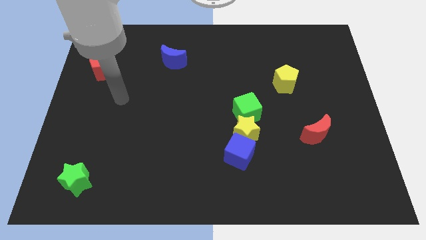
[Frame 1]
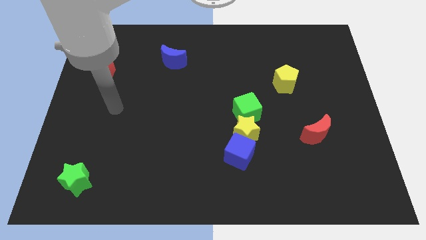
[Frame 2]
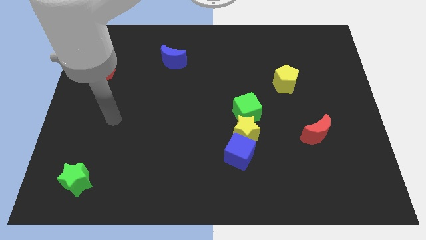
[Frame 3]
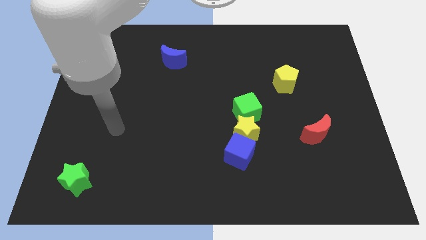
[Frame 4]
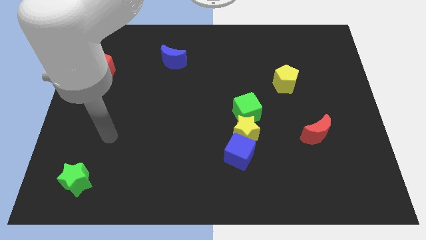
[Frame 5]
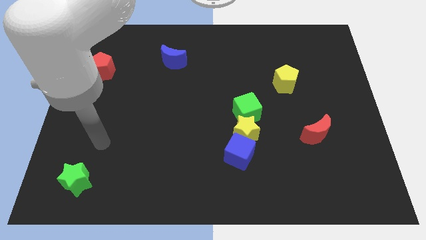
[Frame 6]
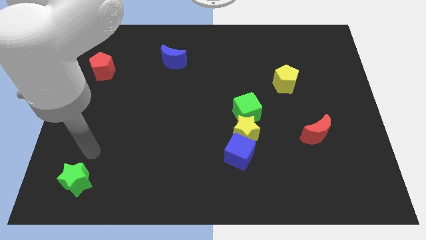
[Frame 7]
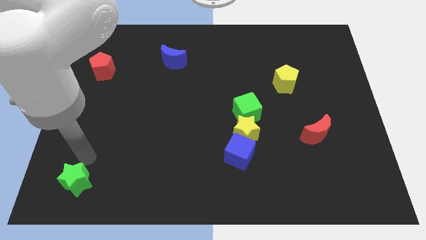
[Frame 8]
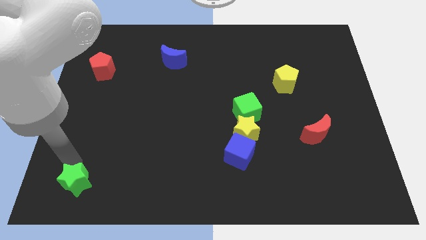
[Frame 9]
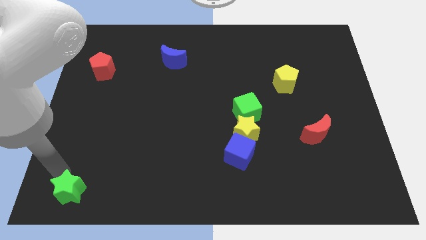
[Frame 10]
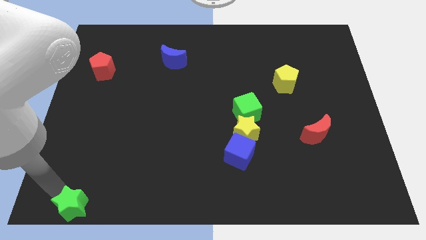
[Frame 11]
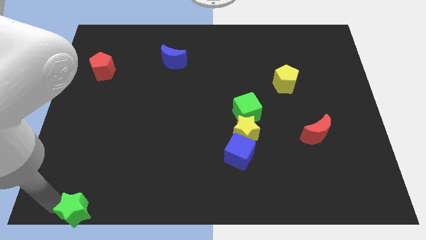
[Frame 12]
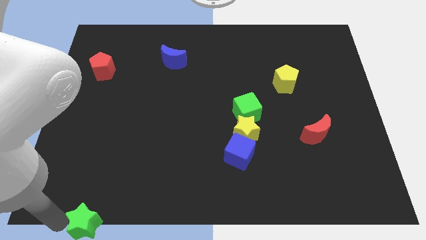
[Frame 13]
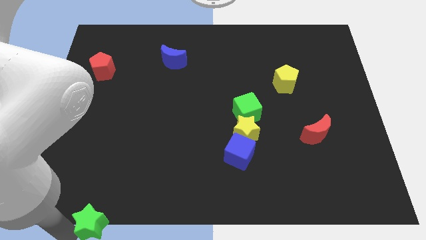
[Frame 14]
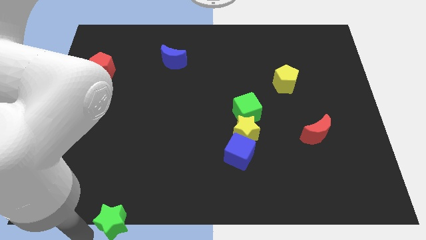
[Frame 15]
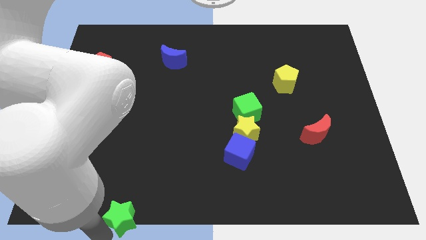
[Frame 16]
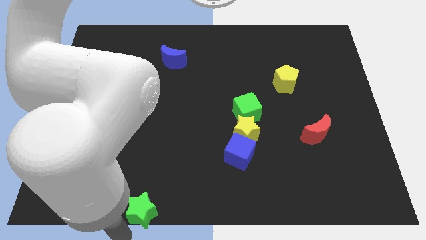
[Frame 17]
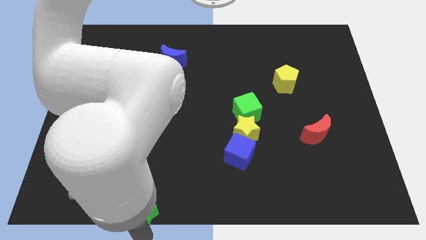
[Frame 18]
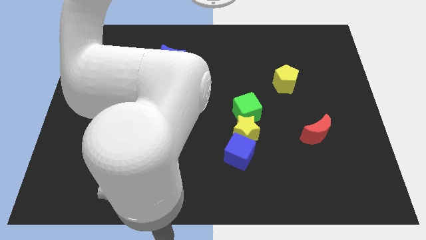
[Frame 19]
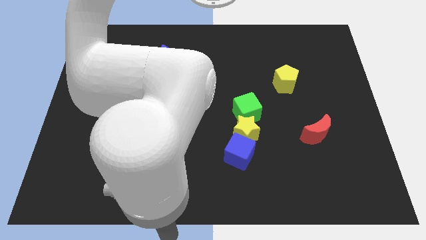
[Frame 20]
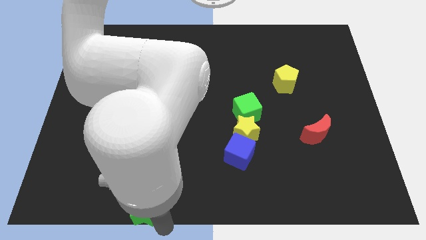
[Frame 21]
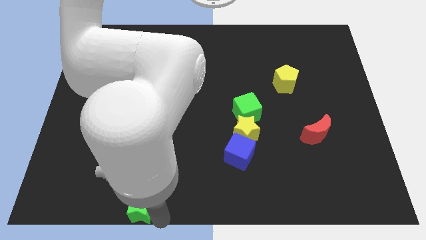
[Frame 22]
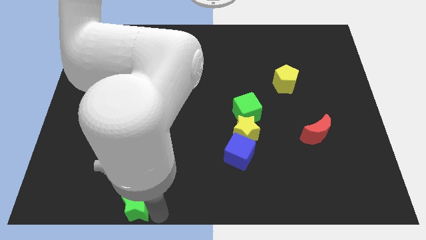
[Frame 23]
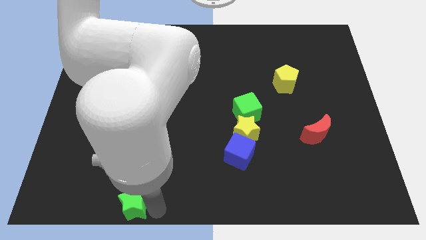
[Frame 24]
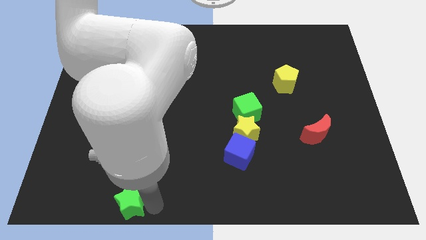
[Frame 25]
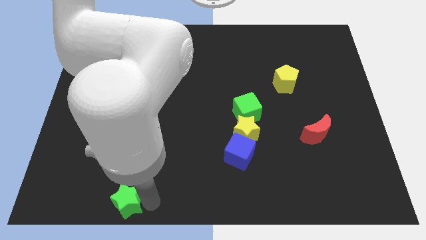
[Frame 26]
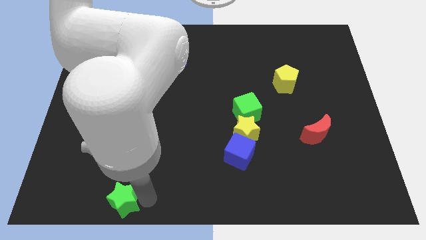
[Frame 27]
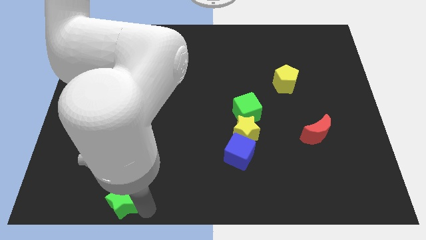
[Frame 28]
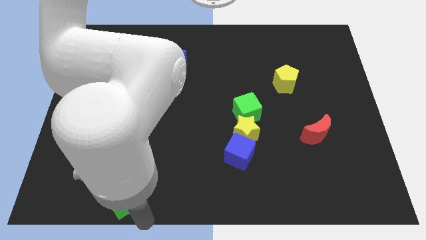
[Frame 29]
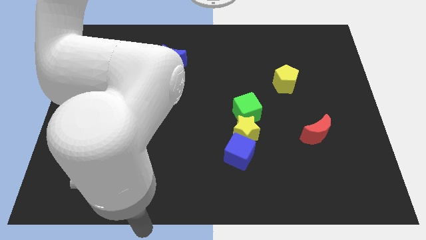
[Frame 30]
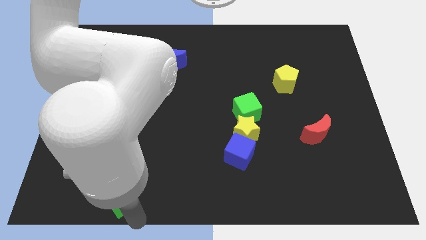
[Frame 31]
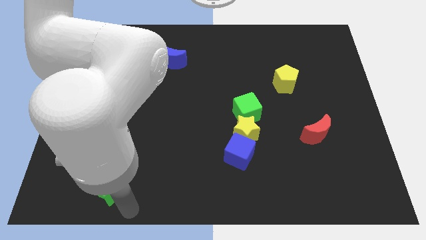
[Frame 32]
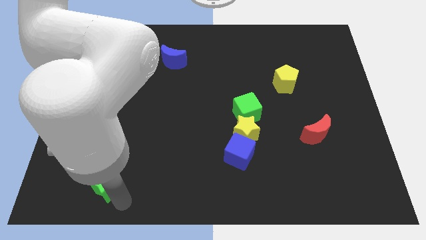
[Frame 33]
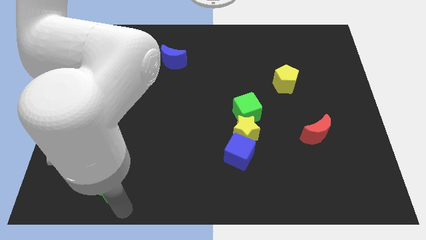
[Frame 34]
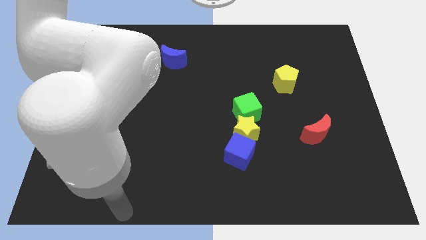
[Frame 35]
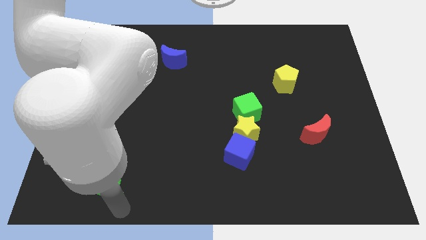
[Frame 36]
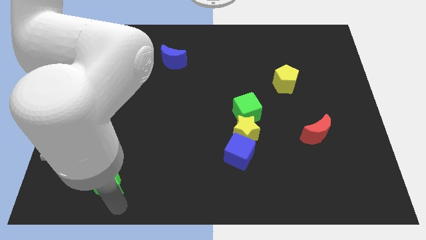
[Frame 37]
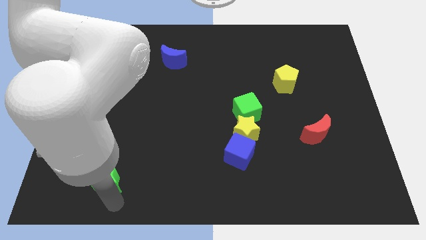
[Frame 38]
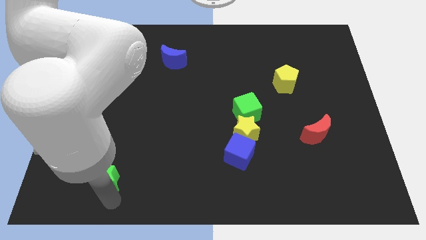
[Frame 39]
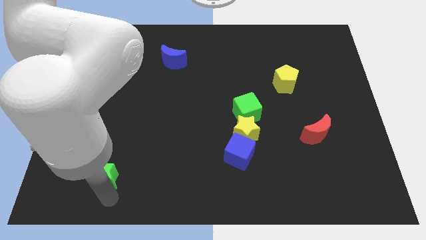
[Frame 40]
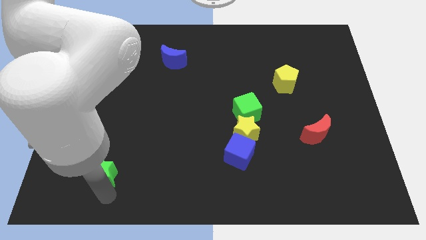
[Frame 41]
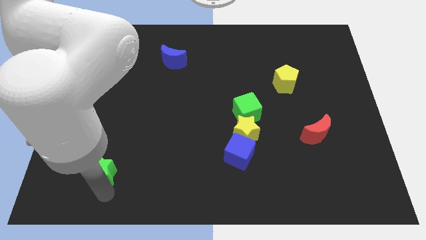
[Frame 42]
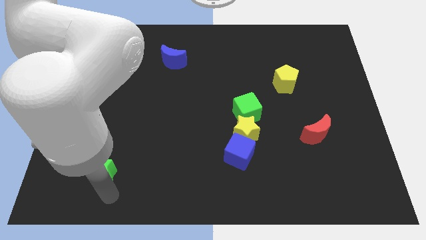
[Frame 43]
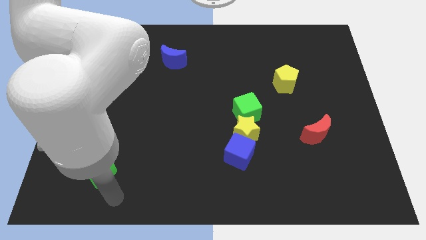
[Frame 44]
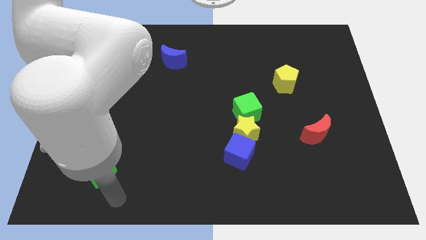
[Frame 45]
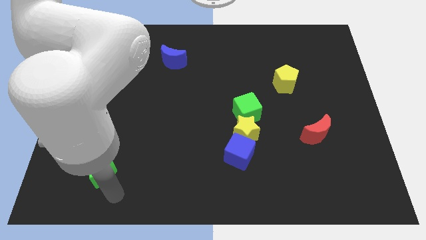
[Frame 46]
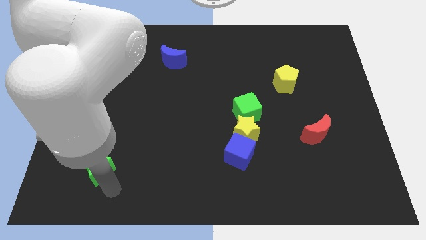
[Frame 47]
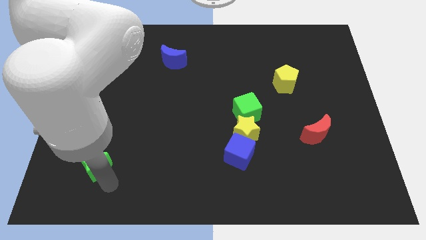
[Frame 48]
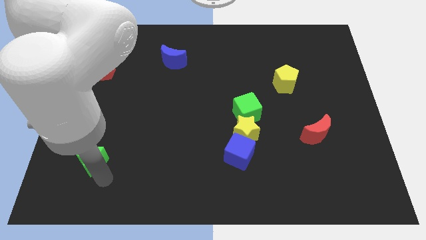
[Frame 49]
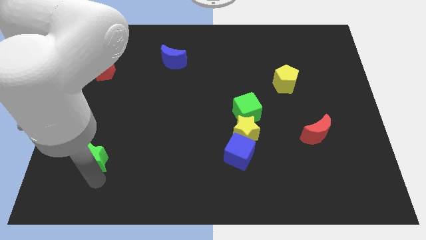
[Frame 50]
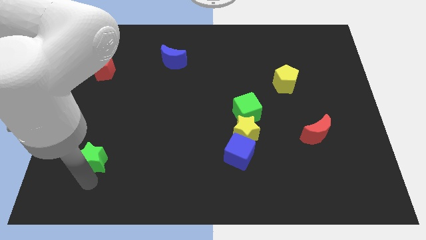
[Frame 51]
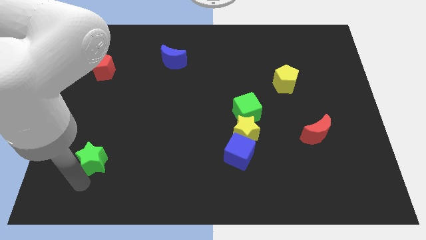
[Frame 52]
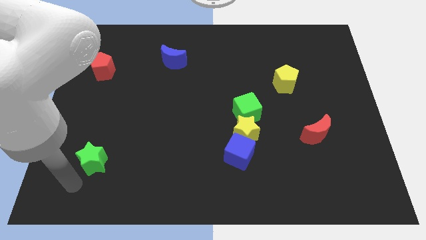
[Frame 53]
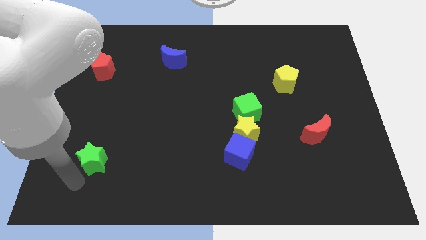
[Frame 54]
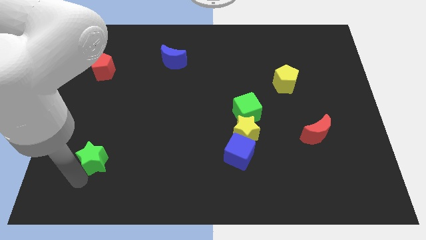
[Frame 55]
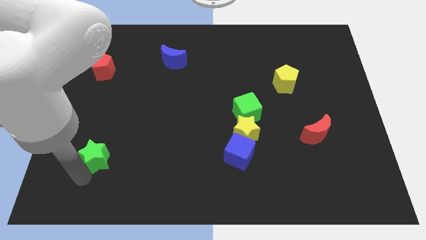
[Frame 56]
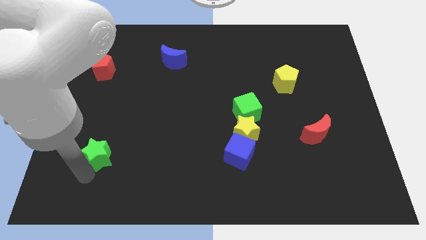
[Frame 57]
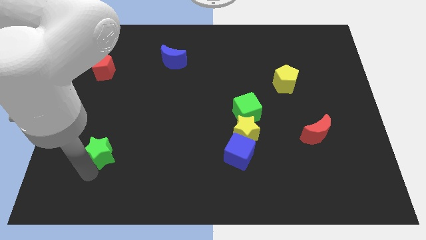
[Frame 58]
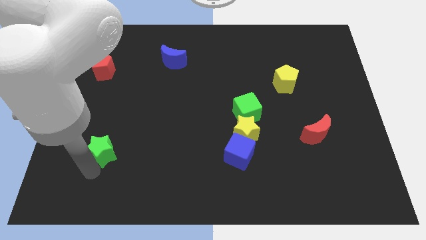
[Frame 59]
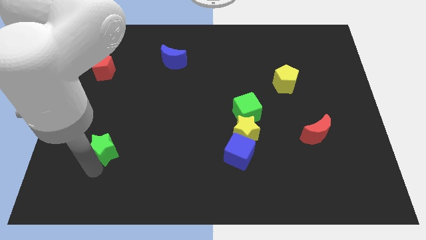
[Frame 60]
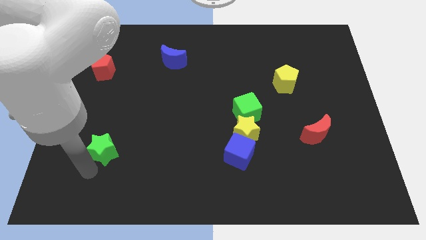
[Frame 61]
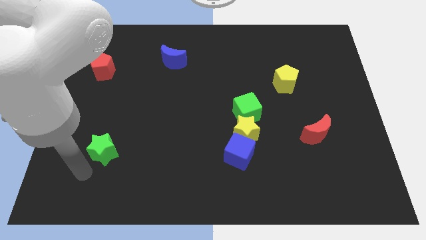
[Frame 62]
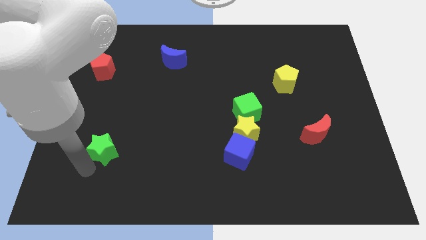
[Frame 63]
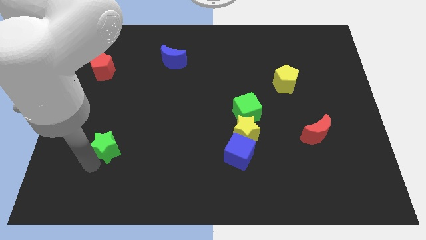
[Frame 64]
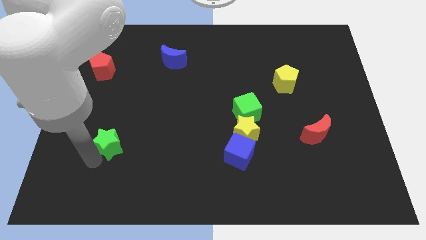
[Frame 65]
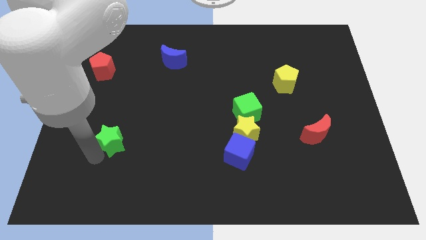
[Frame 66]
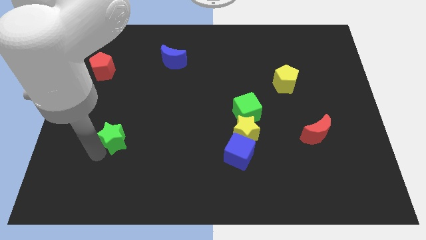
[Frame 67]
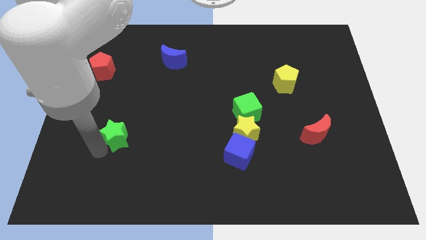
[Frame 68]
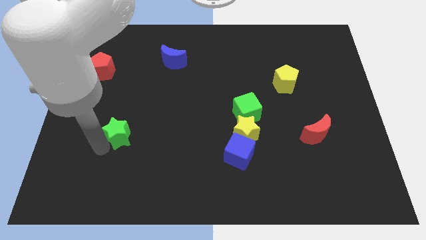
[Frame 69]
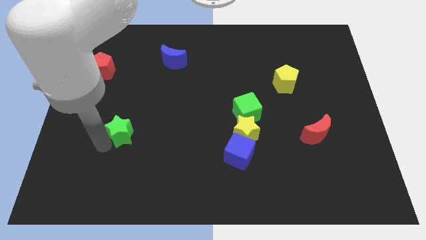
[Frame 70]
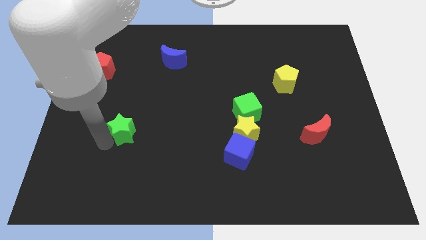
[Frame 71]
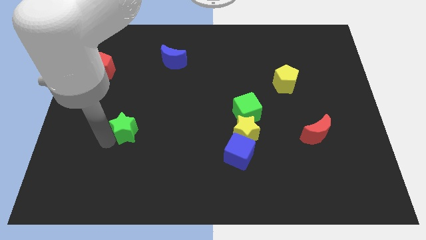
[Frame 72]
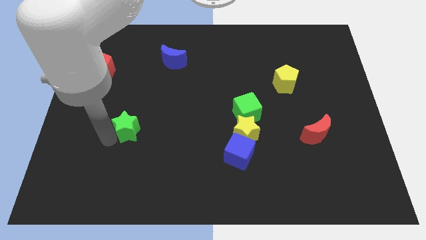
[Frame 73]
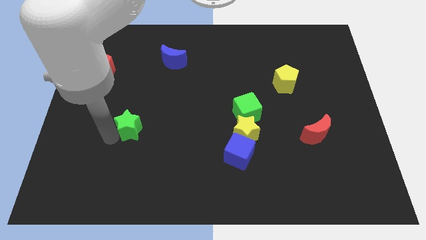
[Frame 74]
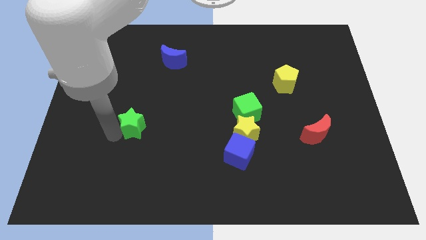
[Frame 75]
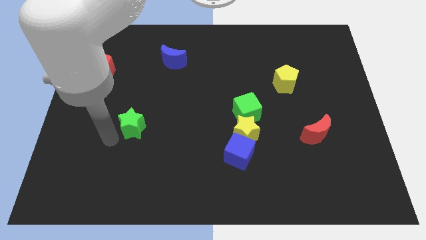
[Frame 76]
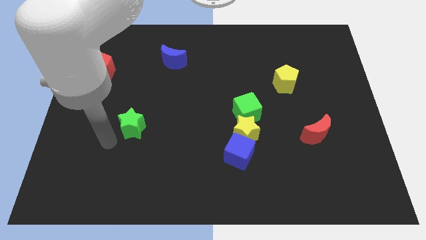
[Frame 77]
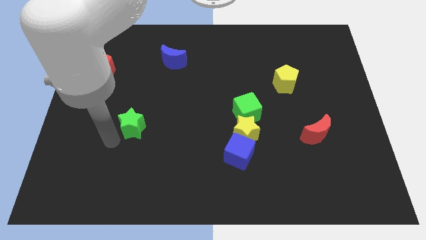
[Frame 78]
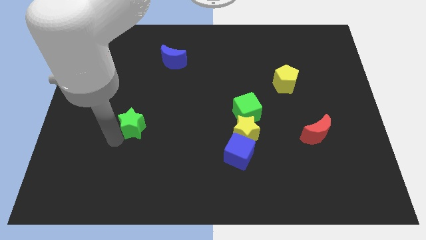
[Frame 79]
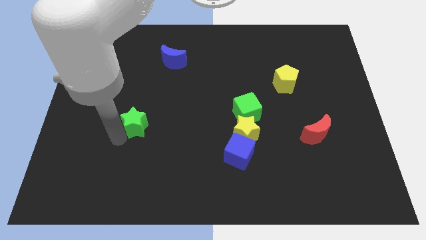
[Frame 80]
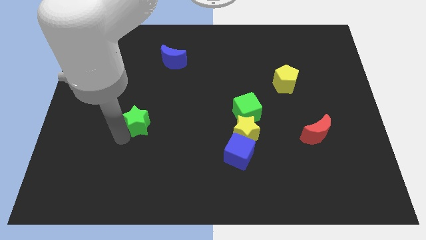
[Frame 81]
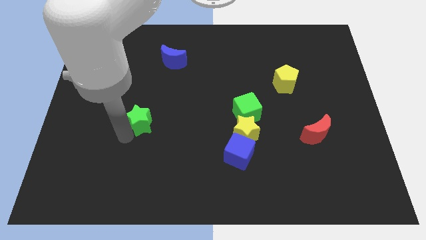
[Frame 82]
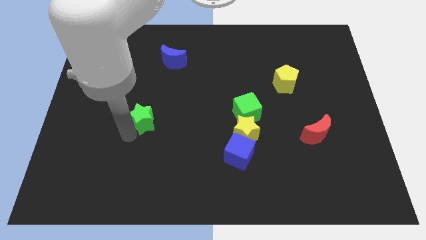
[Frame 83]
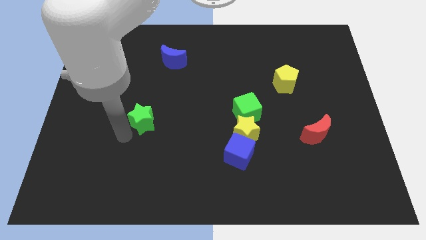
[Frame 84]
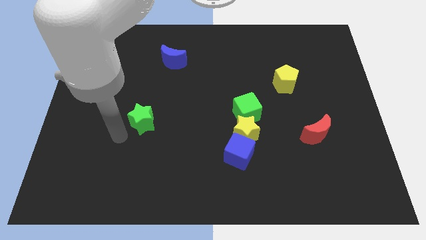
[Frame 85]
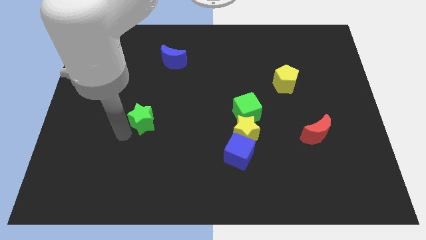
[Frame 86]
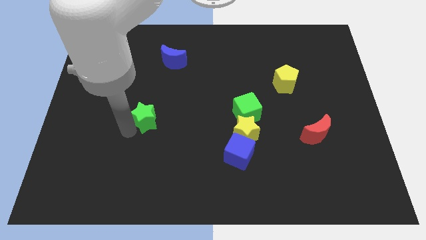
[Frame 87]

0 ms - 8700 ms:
push the green star diagonally up and to the right
